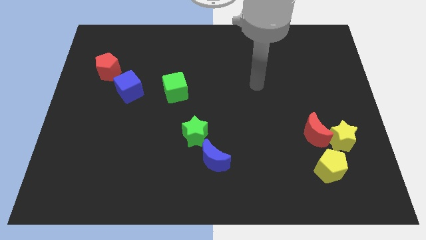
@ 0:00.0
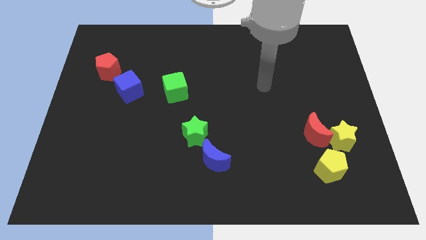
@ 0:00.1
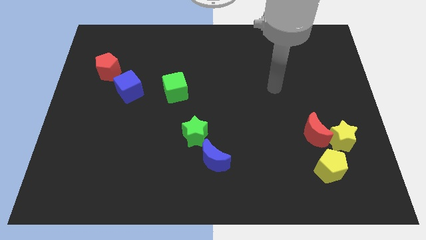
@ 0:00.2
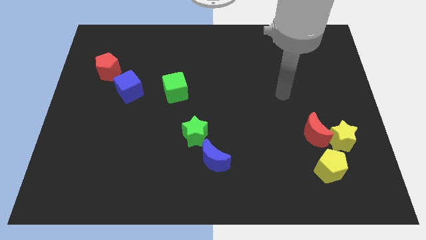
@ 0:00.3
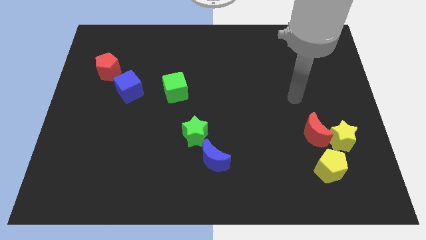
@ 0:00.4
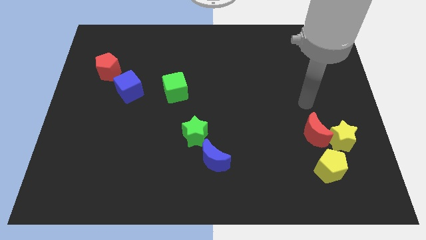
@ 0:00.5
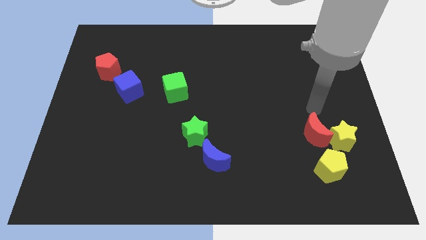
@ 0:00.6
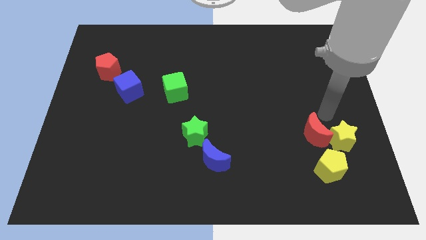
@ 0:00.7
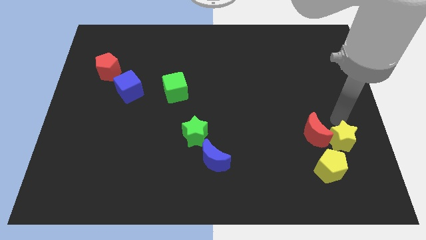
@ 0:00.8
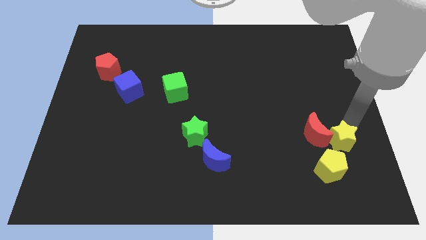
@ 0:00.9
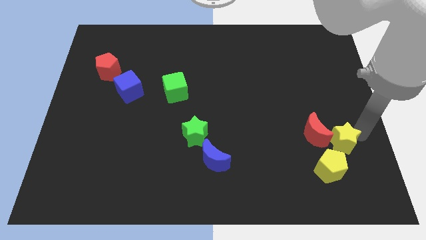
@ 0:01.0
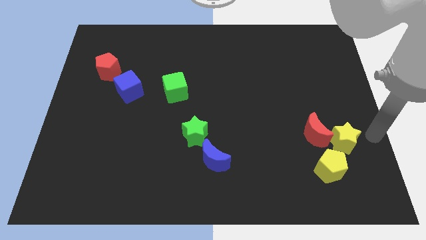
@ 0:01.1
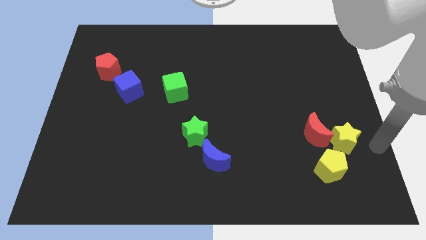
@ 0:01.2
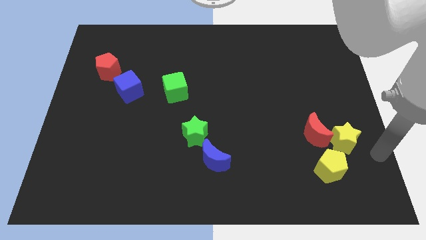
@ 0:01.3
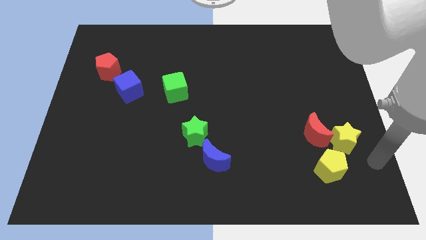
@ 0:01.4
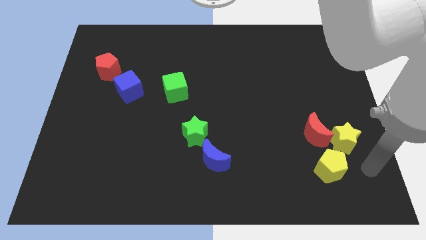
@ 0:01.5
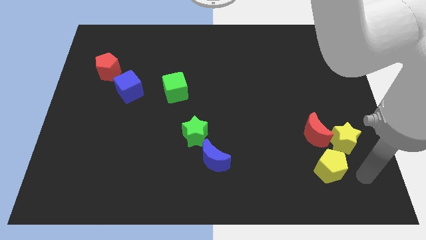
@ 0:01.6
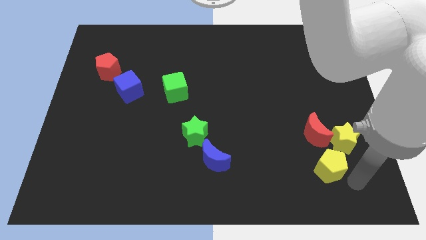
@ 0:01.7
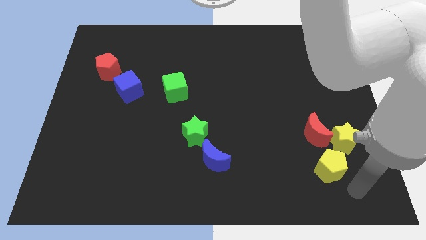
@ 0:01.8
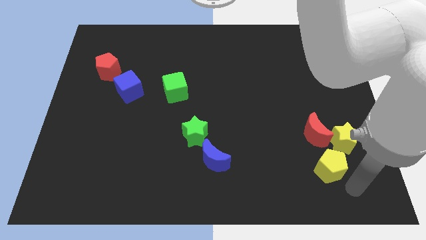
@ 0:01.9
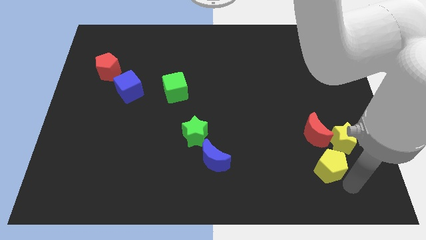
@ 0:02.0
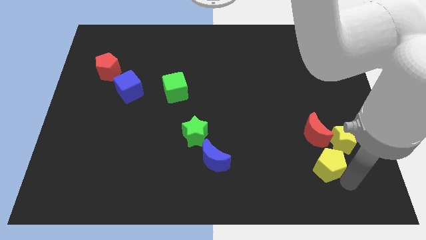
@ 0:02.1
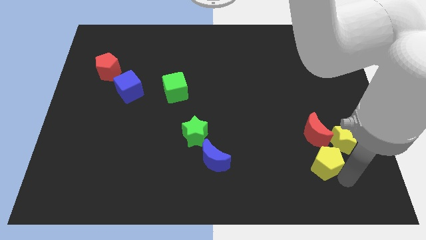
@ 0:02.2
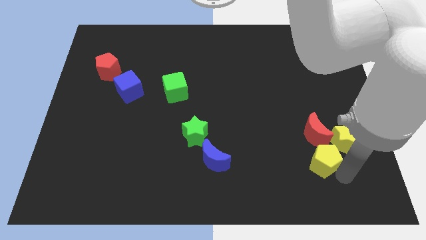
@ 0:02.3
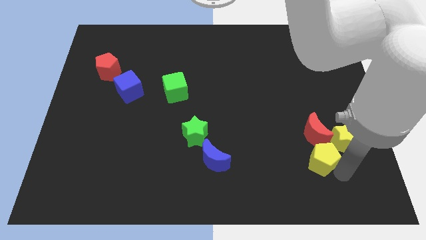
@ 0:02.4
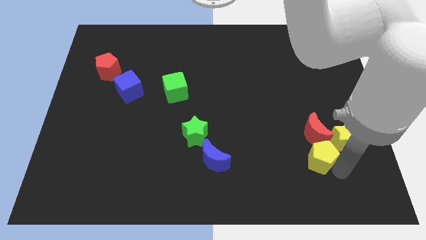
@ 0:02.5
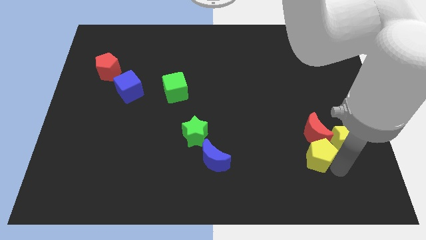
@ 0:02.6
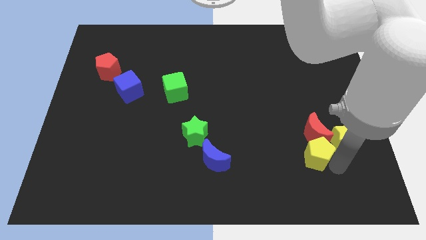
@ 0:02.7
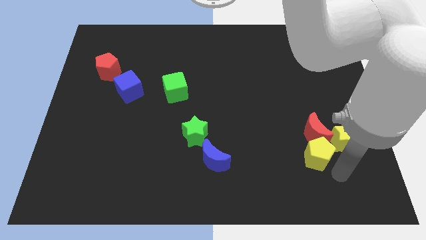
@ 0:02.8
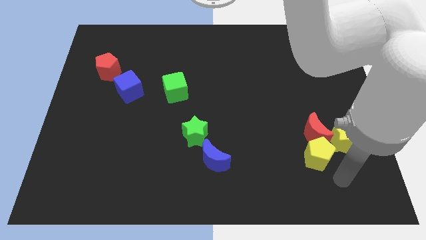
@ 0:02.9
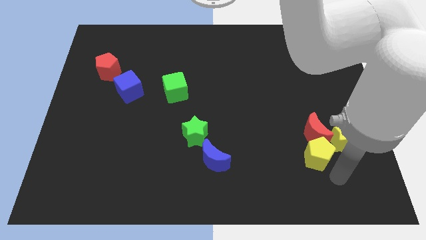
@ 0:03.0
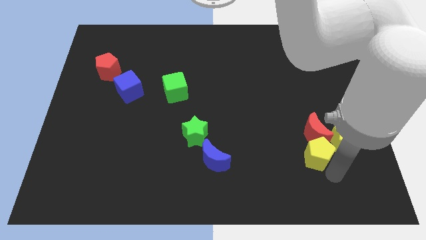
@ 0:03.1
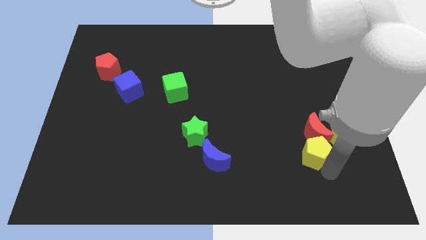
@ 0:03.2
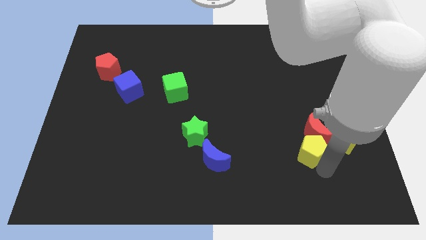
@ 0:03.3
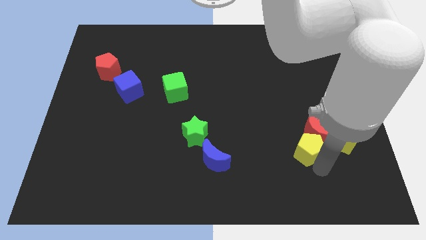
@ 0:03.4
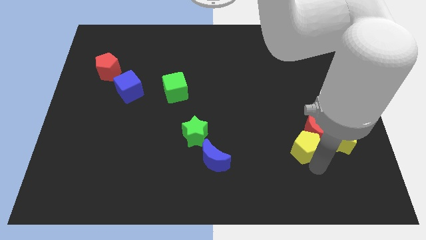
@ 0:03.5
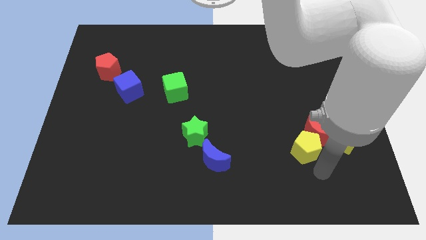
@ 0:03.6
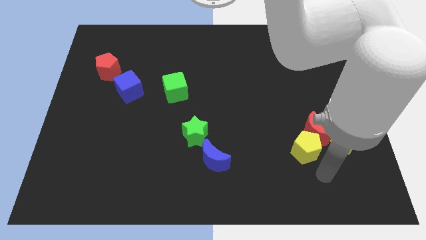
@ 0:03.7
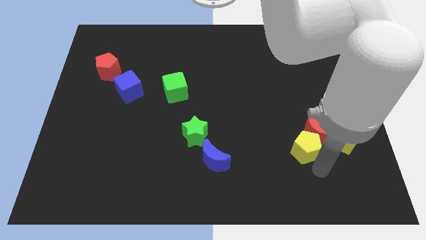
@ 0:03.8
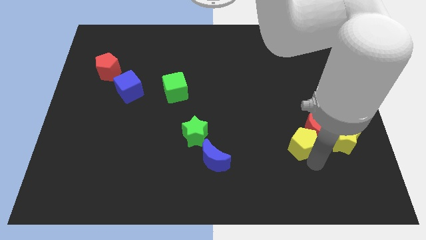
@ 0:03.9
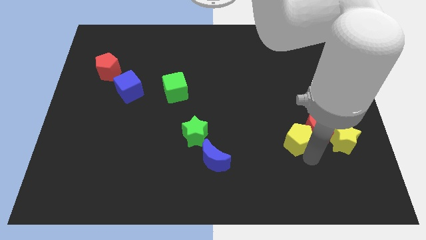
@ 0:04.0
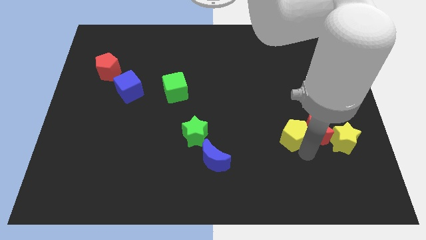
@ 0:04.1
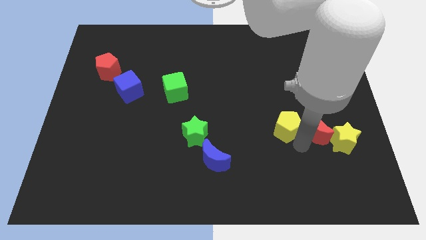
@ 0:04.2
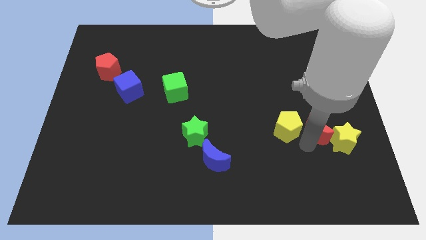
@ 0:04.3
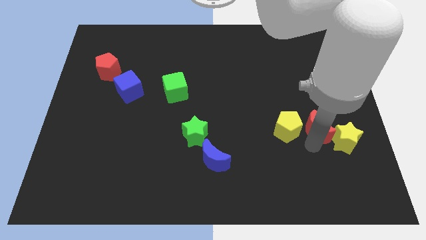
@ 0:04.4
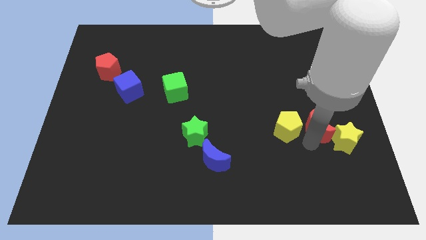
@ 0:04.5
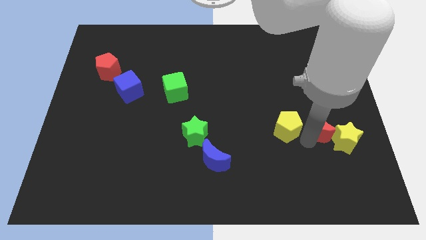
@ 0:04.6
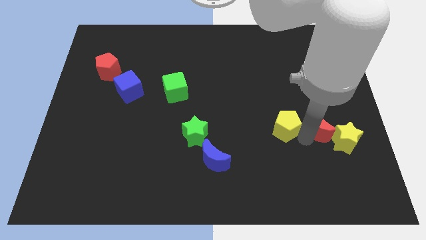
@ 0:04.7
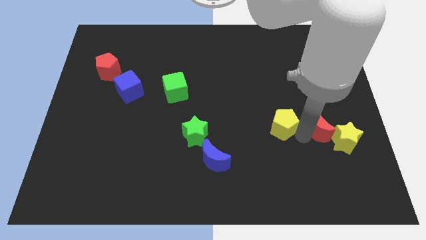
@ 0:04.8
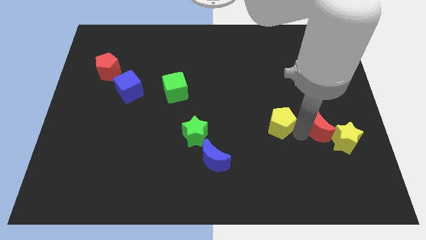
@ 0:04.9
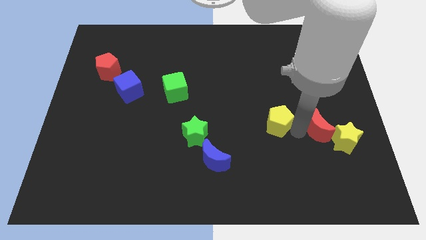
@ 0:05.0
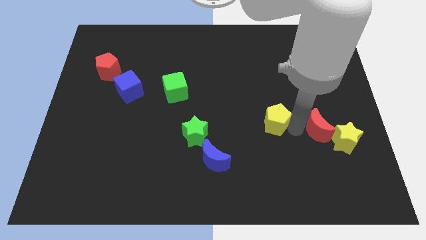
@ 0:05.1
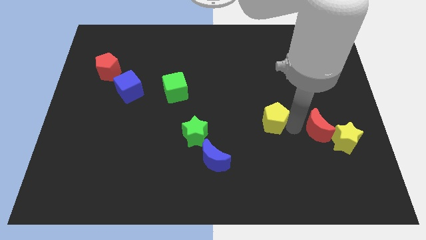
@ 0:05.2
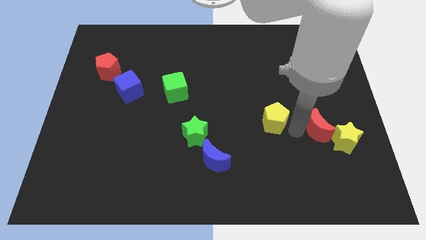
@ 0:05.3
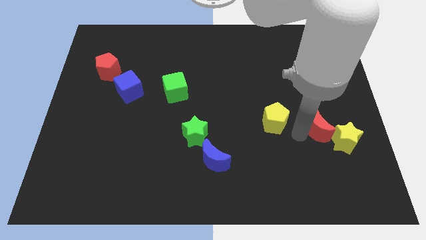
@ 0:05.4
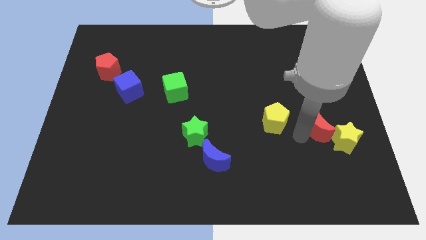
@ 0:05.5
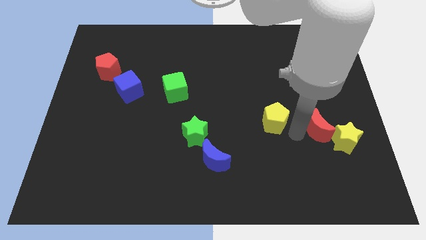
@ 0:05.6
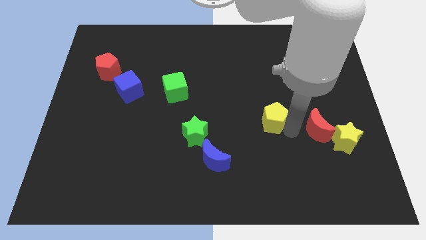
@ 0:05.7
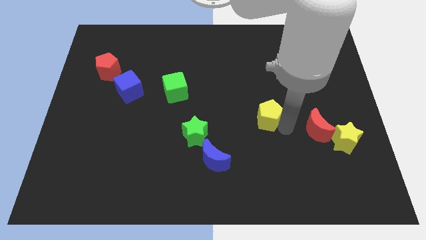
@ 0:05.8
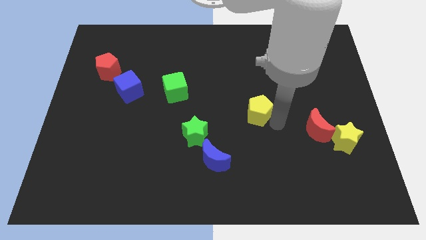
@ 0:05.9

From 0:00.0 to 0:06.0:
push the yellow pentagon up and to the left

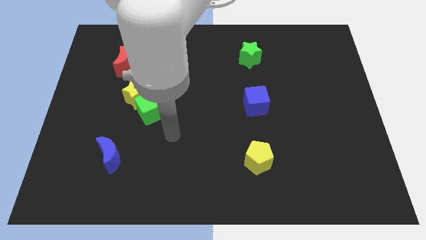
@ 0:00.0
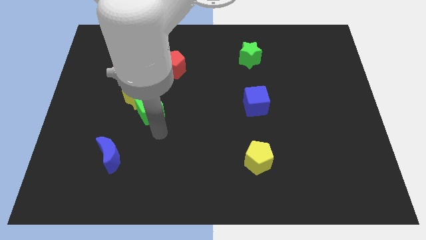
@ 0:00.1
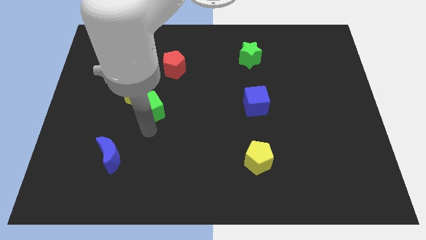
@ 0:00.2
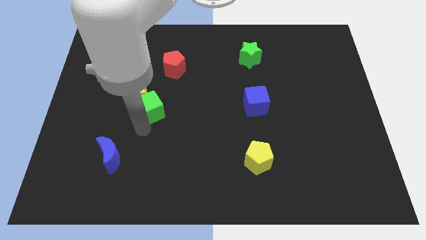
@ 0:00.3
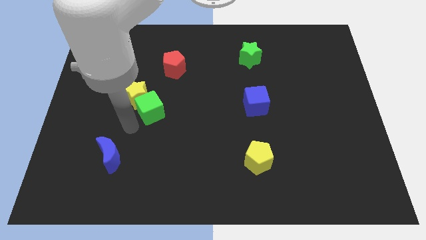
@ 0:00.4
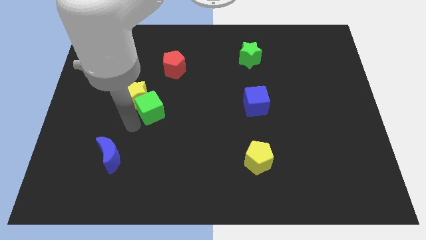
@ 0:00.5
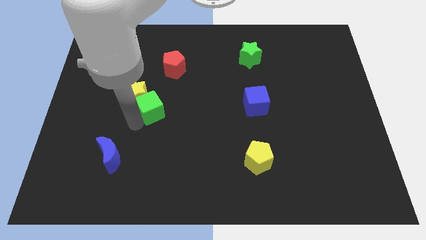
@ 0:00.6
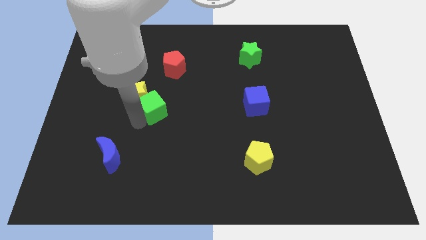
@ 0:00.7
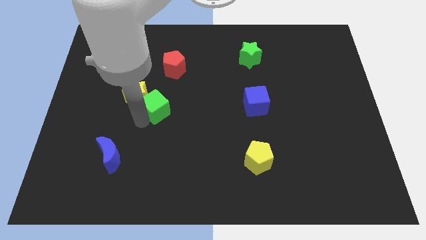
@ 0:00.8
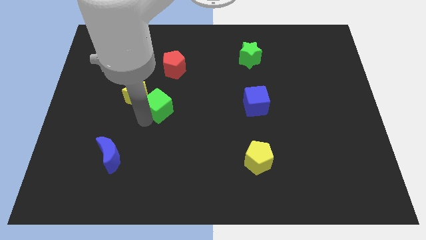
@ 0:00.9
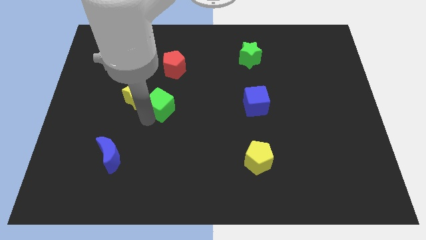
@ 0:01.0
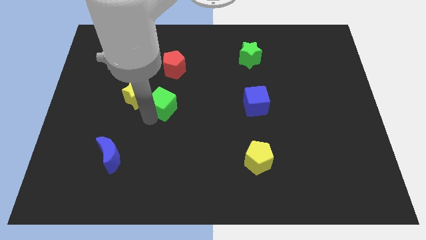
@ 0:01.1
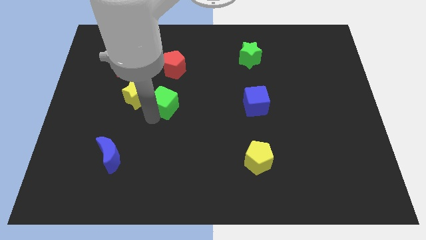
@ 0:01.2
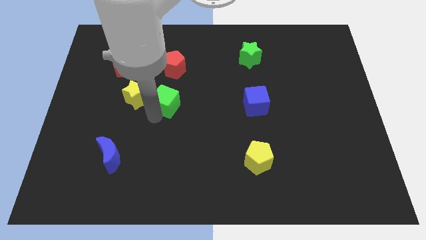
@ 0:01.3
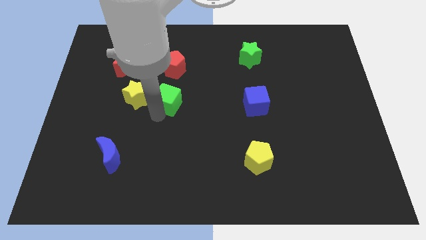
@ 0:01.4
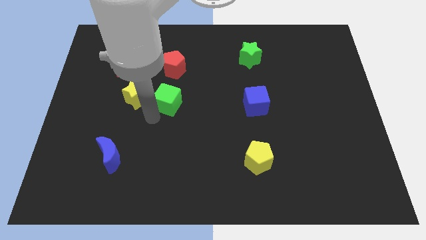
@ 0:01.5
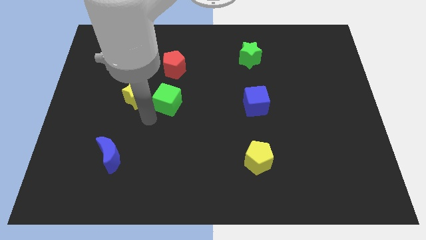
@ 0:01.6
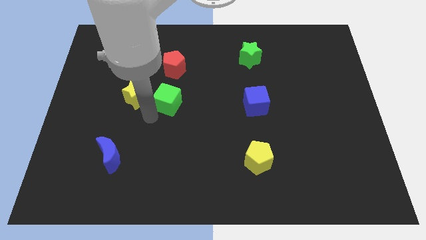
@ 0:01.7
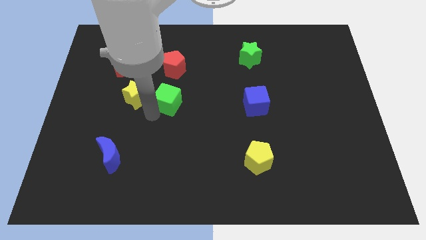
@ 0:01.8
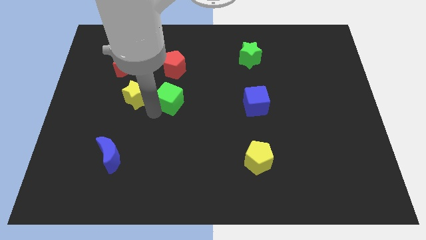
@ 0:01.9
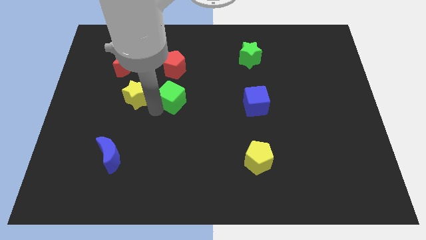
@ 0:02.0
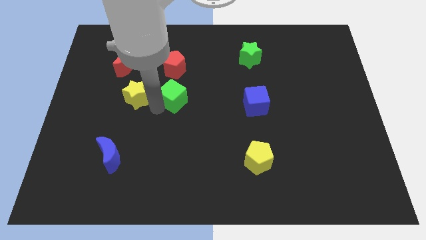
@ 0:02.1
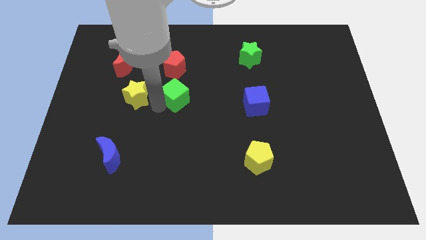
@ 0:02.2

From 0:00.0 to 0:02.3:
move the green cube upwards and to the right diagonally a little
